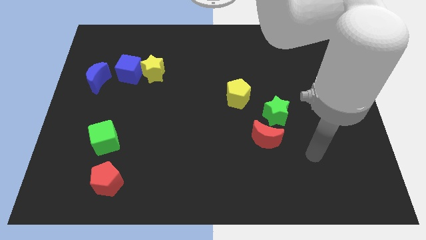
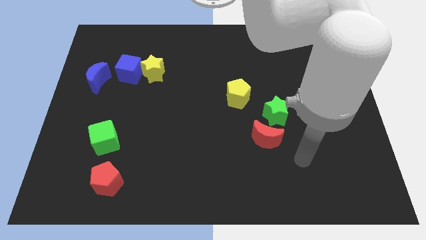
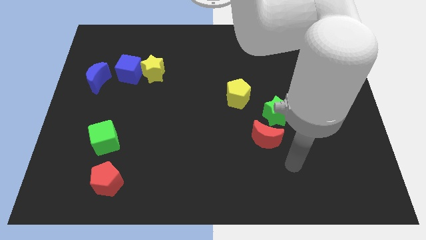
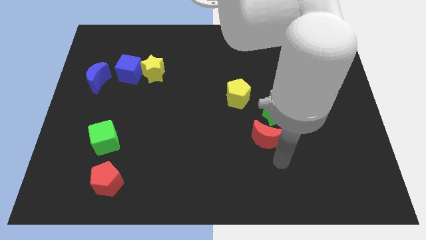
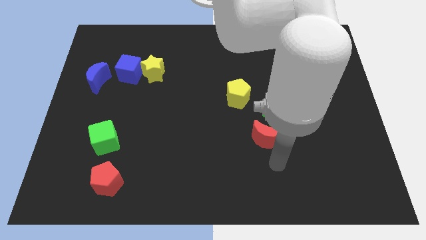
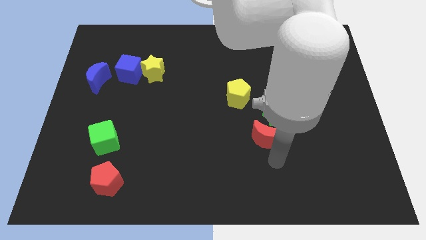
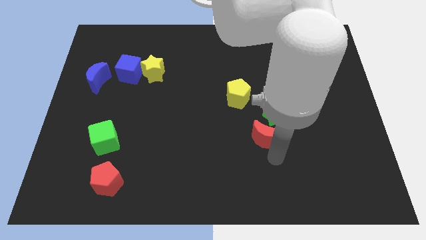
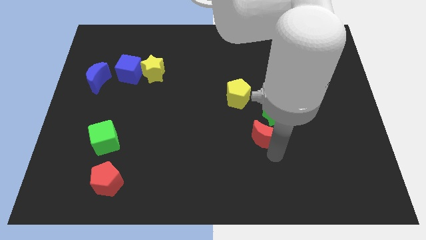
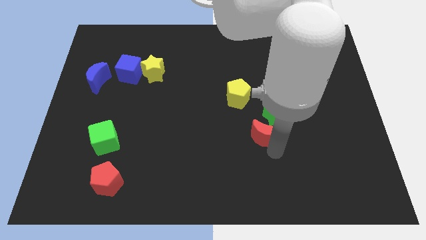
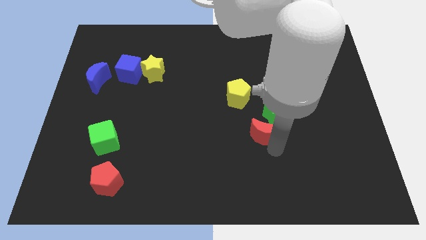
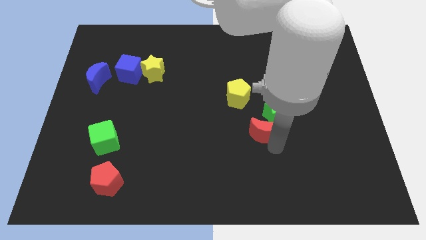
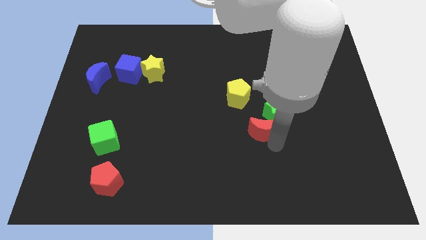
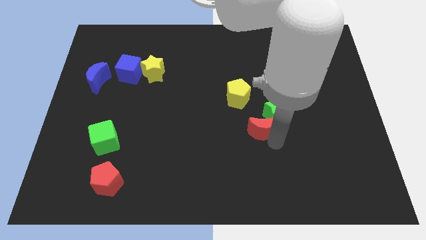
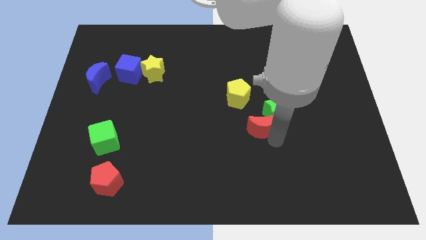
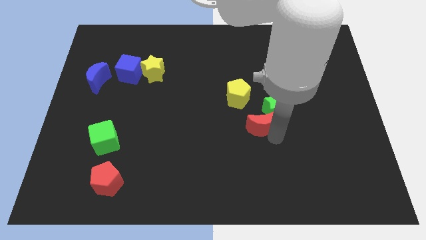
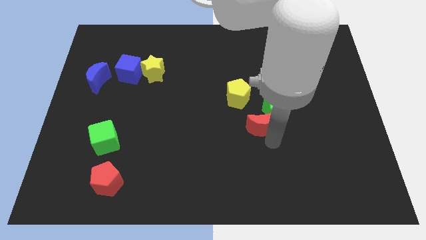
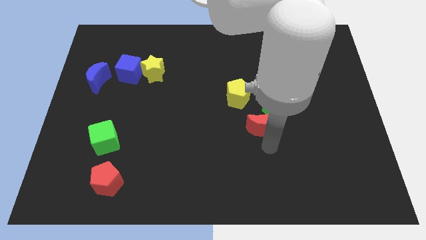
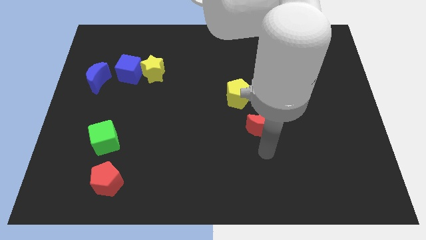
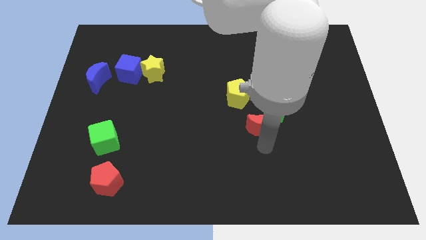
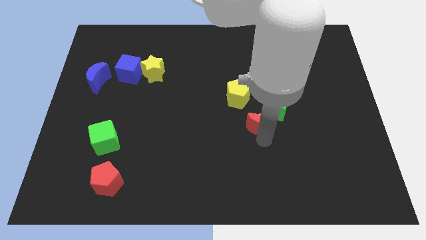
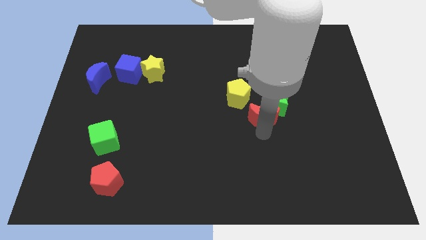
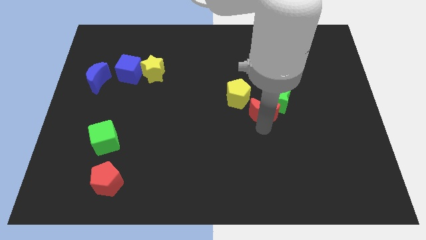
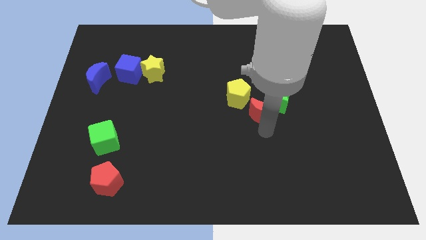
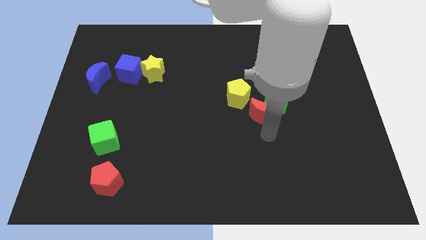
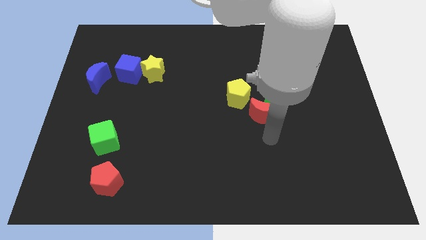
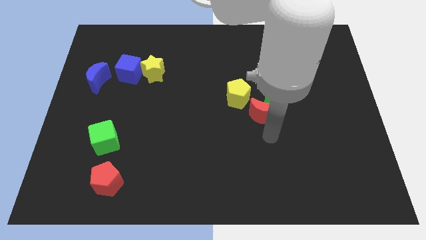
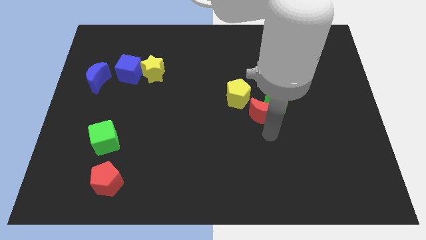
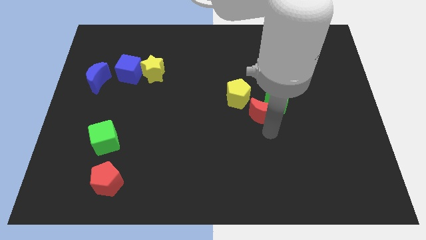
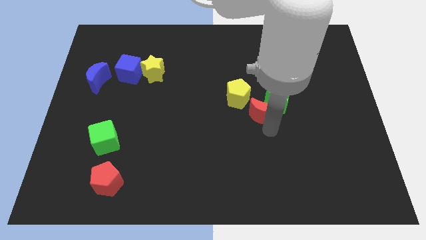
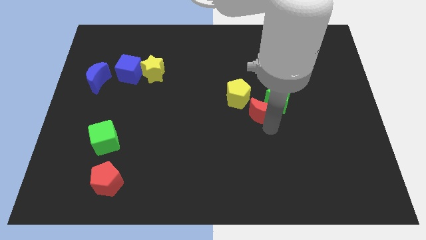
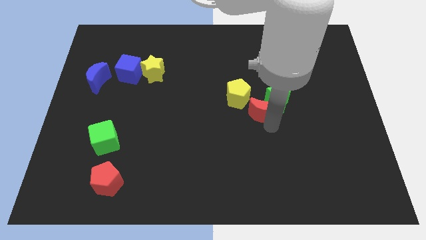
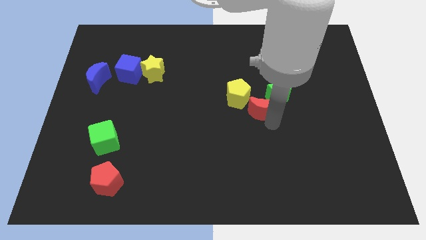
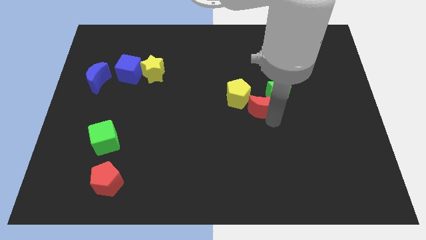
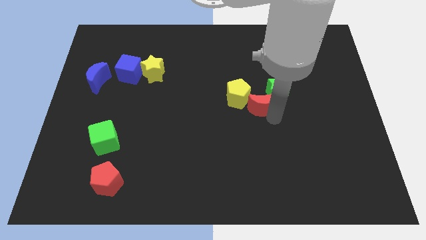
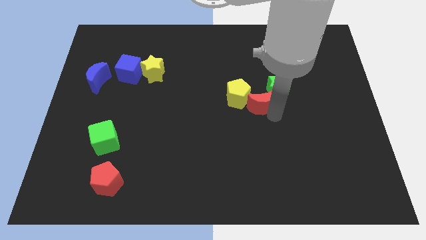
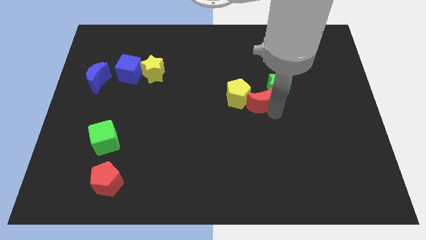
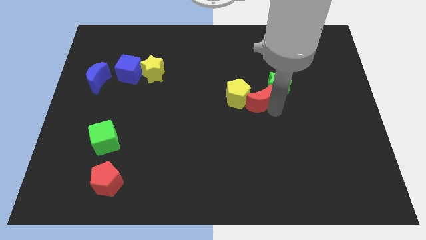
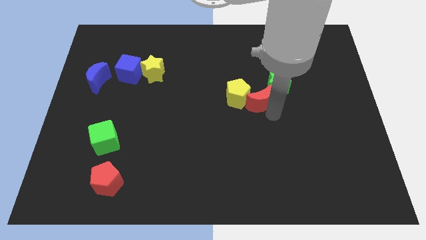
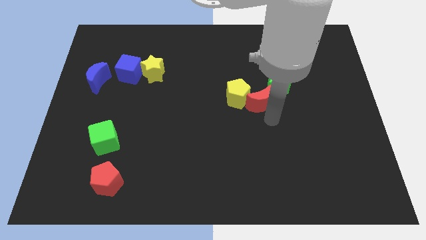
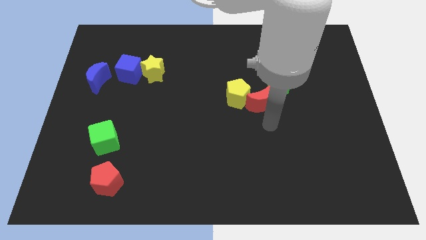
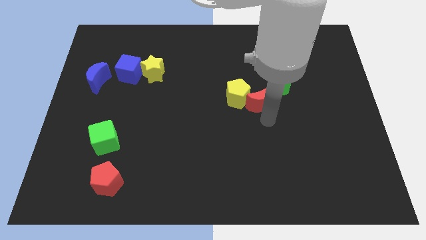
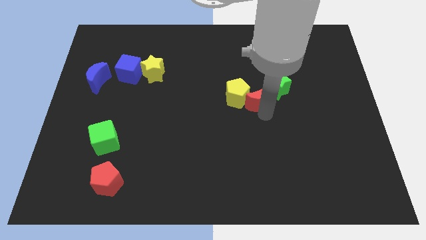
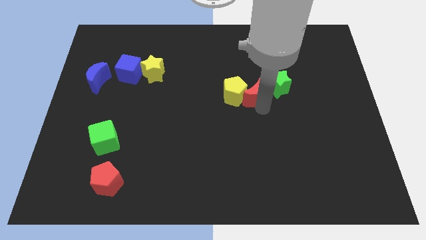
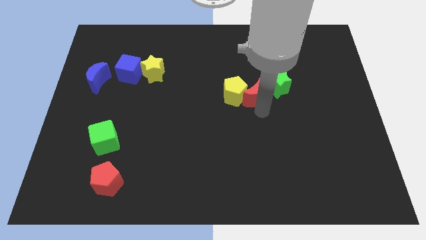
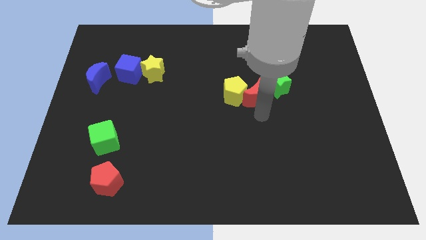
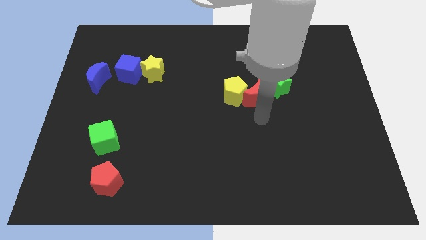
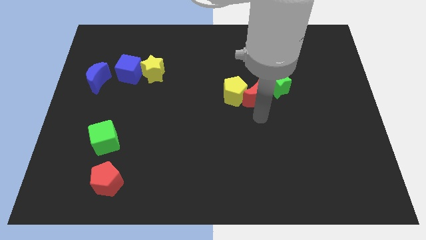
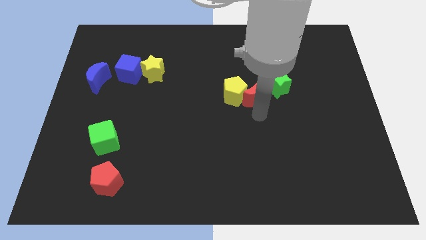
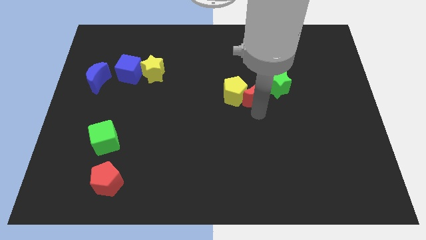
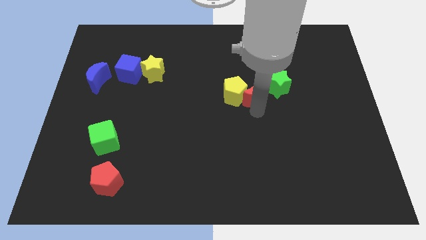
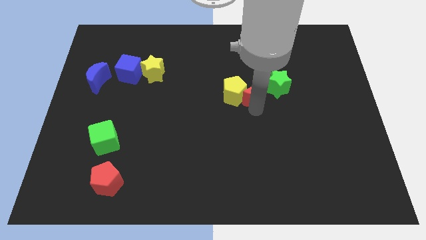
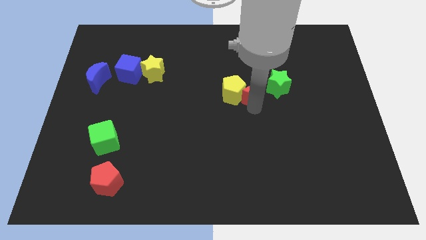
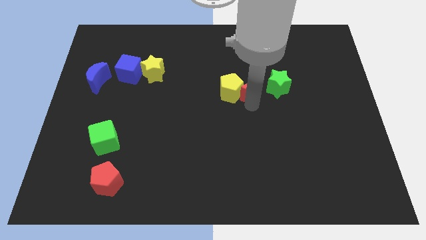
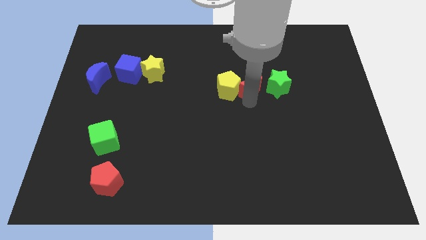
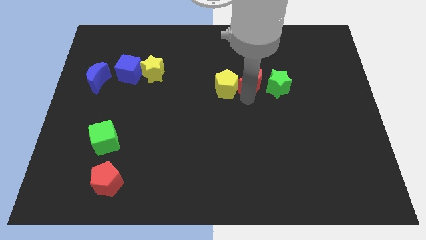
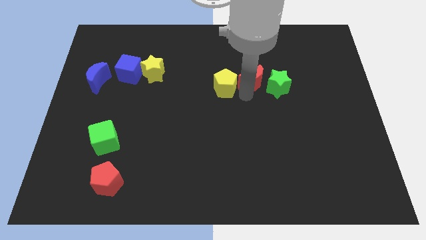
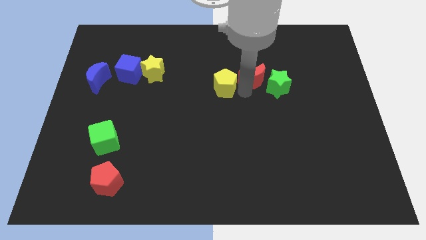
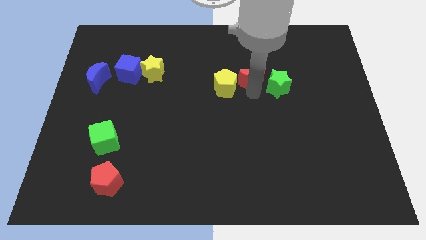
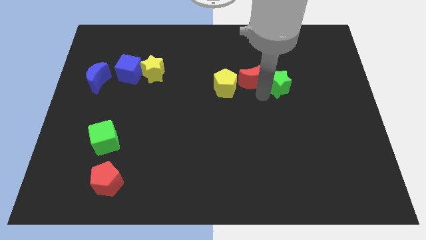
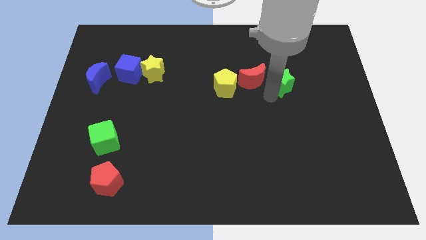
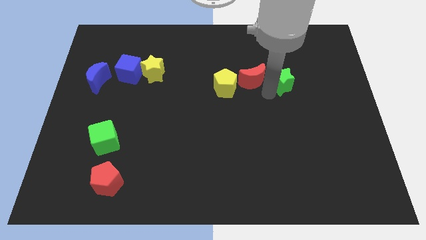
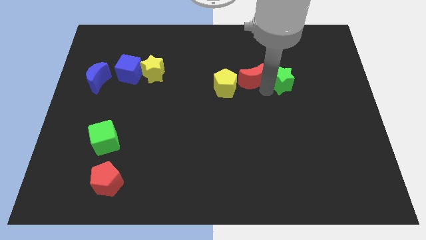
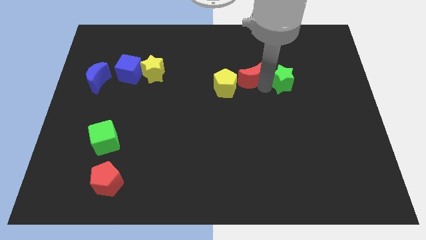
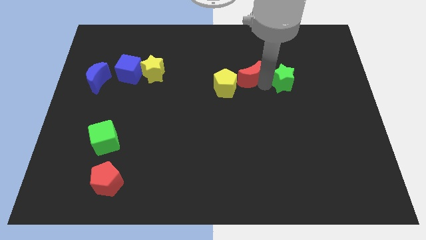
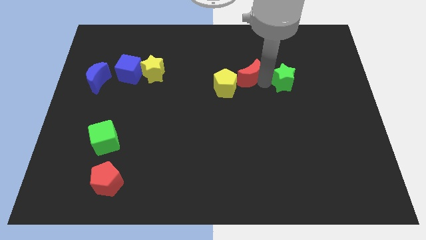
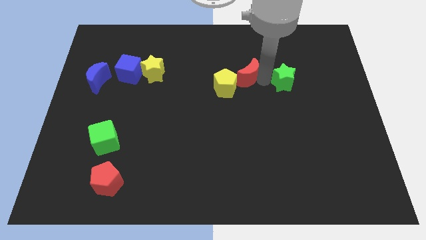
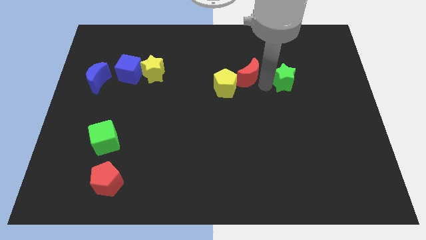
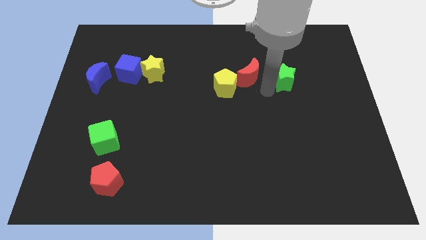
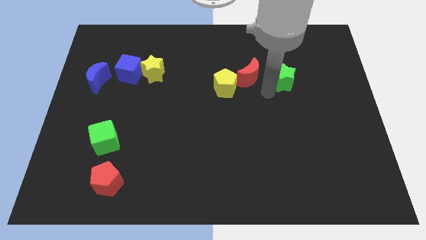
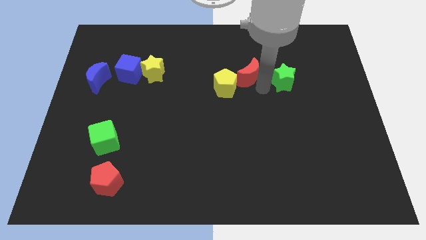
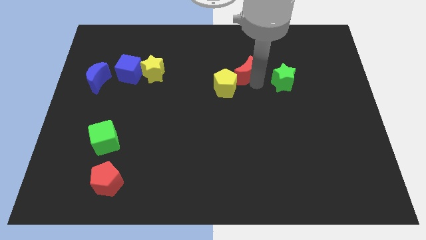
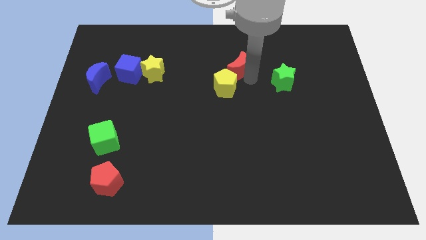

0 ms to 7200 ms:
push the red moon to the top side of the yellow pentagon
